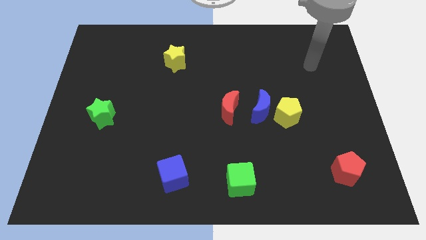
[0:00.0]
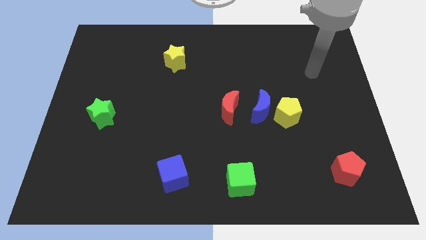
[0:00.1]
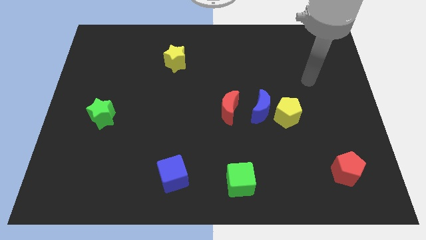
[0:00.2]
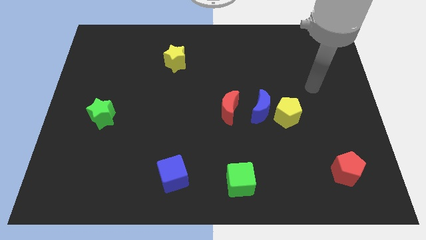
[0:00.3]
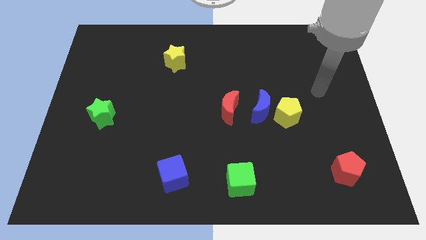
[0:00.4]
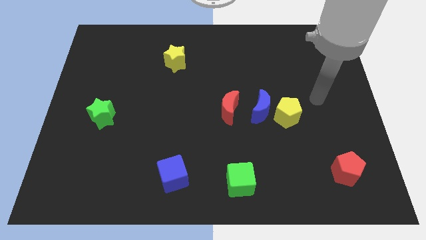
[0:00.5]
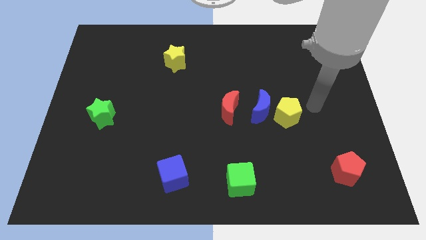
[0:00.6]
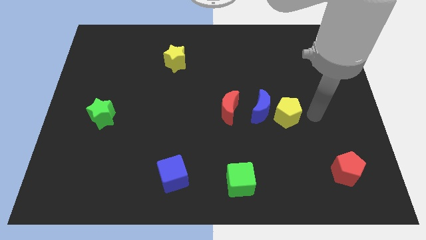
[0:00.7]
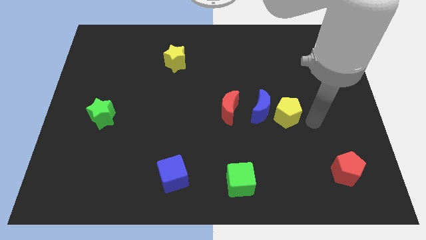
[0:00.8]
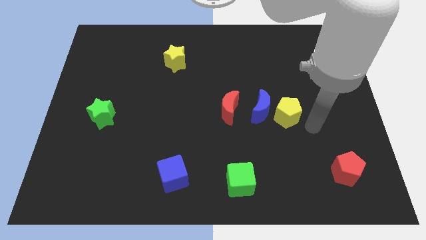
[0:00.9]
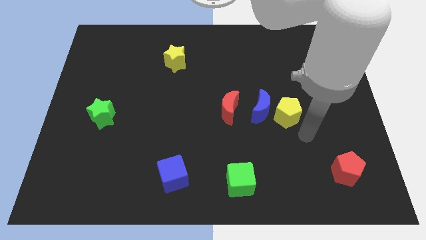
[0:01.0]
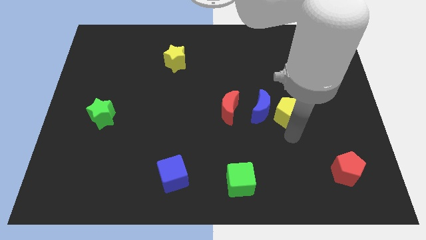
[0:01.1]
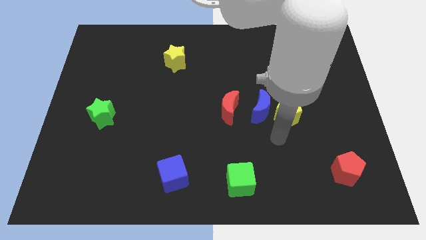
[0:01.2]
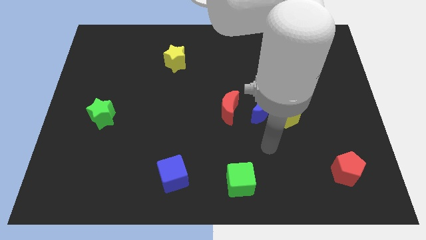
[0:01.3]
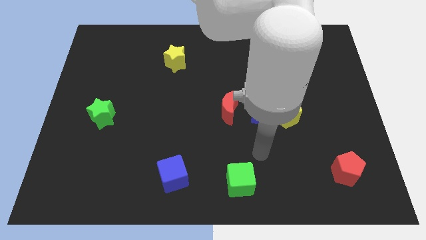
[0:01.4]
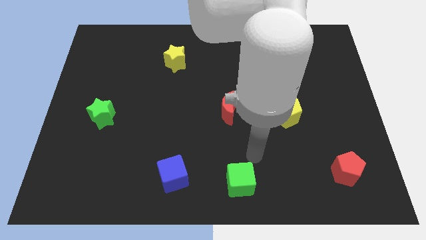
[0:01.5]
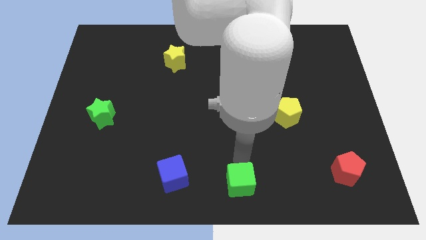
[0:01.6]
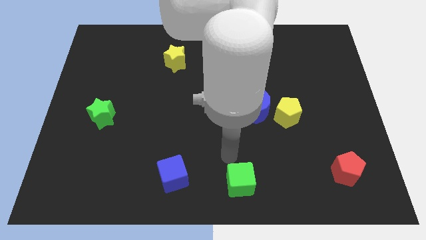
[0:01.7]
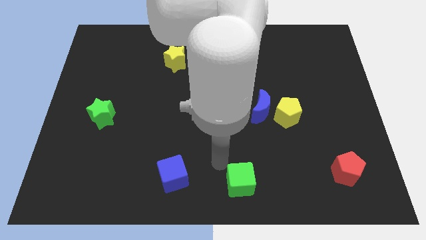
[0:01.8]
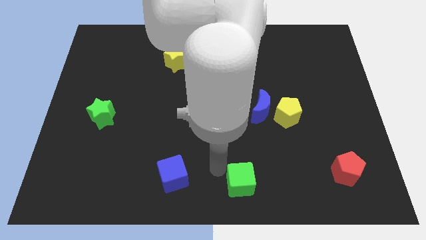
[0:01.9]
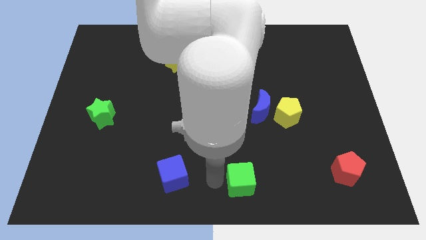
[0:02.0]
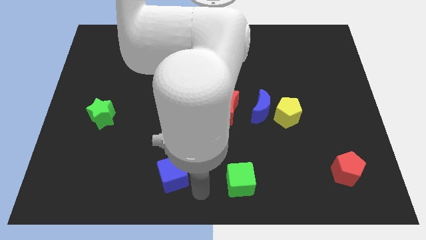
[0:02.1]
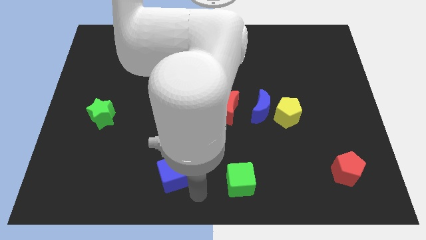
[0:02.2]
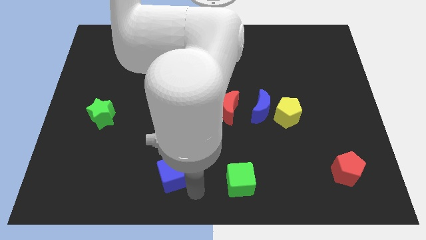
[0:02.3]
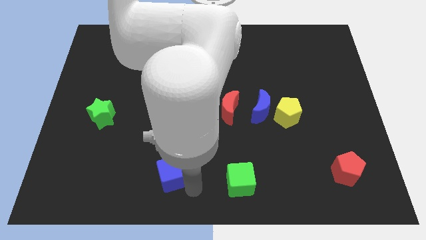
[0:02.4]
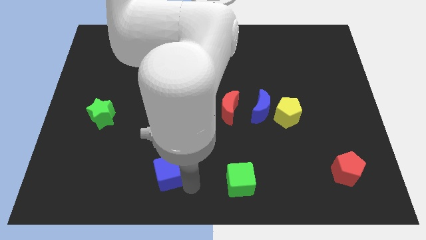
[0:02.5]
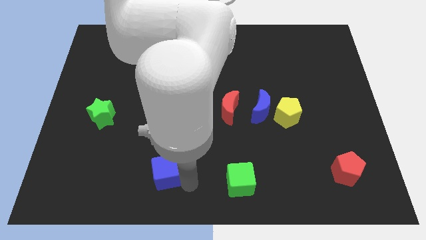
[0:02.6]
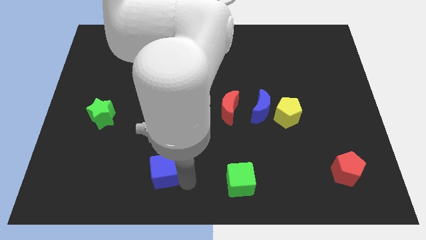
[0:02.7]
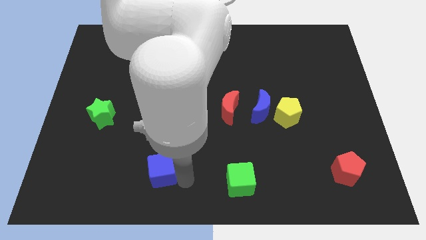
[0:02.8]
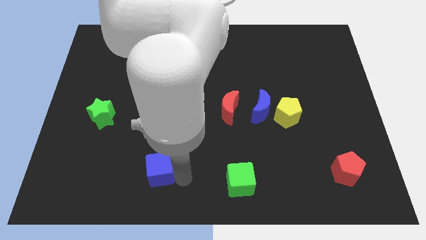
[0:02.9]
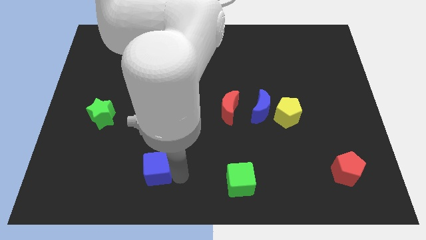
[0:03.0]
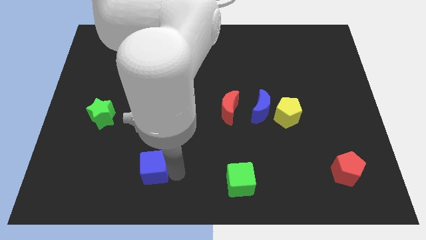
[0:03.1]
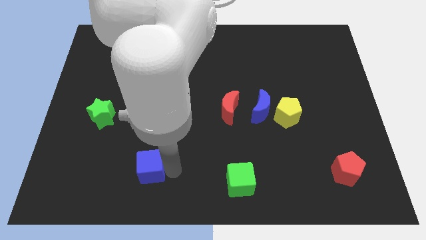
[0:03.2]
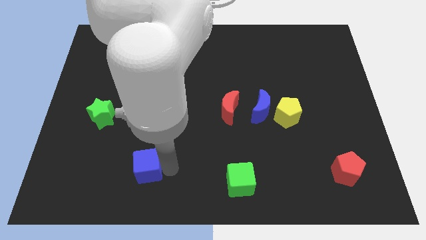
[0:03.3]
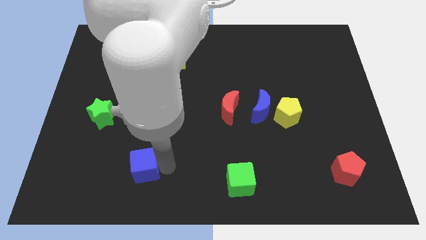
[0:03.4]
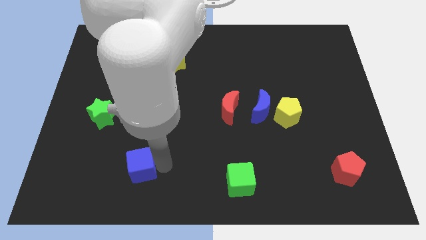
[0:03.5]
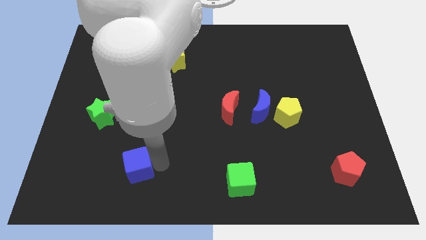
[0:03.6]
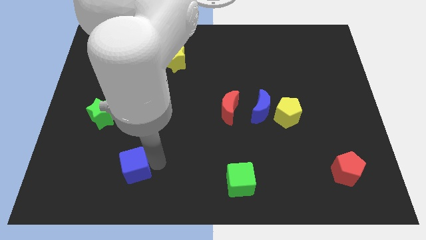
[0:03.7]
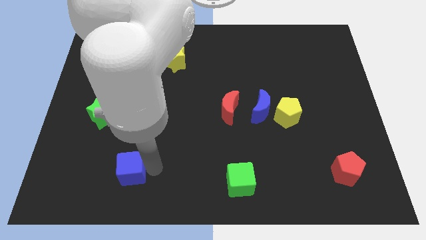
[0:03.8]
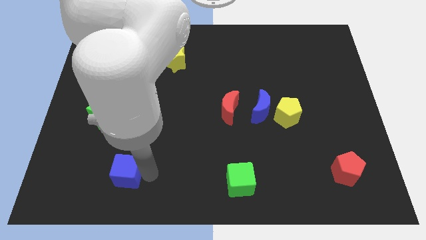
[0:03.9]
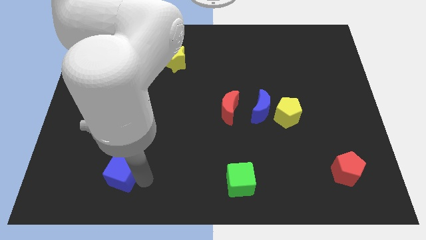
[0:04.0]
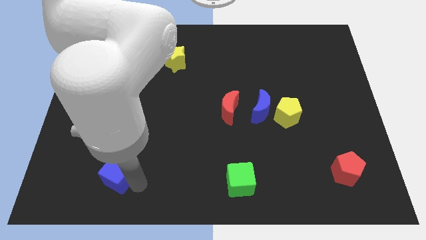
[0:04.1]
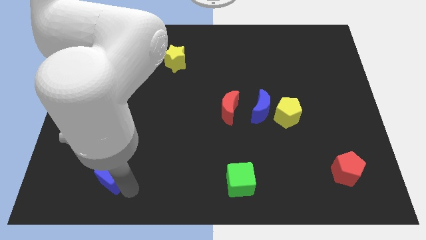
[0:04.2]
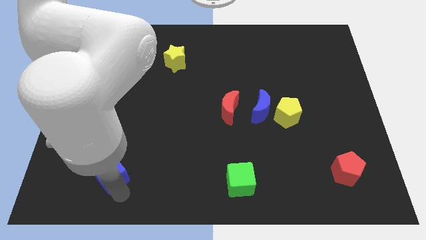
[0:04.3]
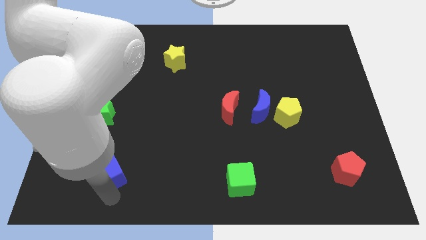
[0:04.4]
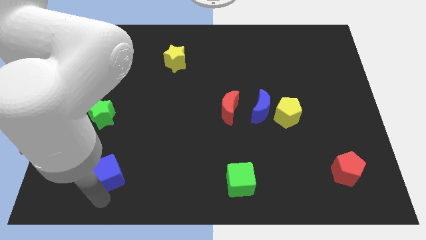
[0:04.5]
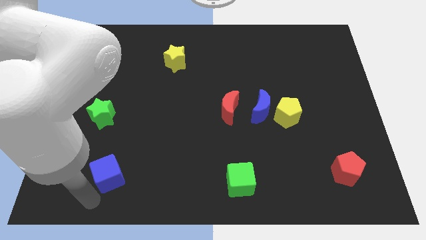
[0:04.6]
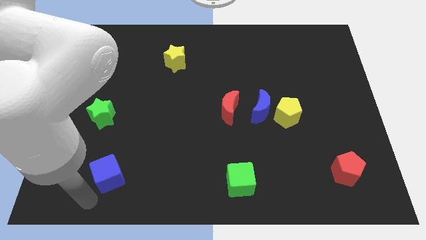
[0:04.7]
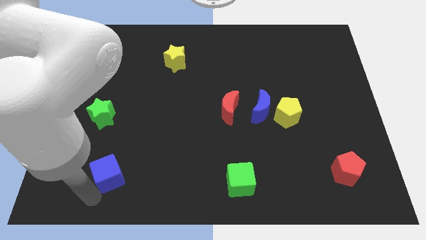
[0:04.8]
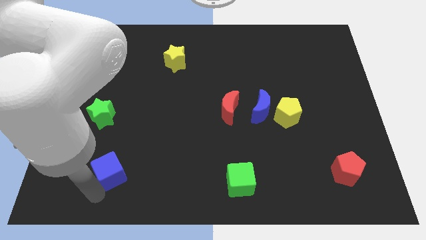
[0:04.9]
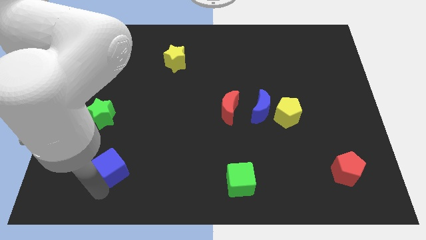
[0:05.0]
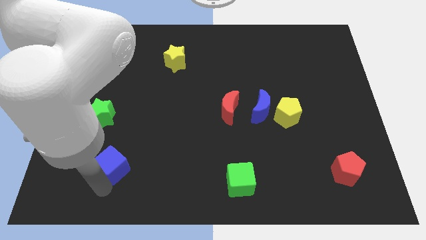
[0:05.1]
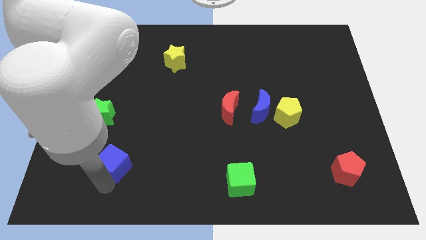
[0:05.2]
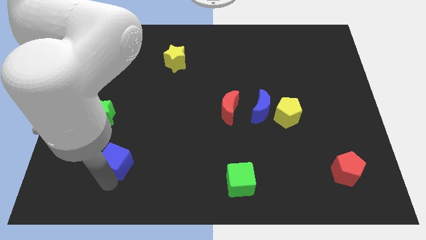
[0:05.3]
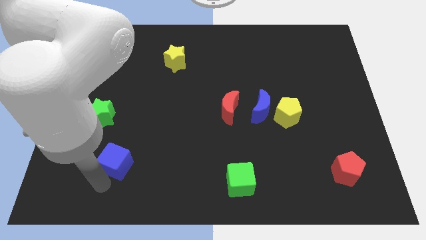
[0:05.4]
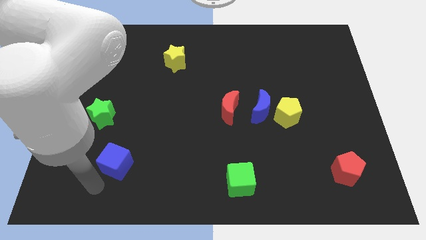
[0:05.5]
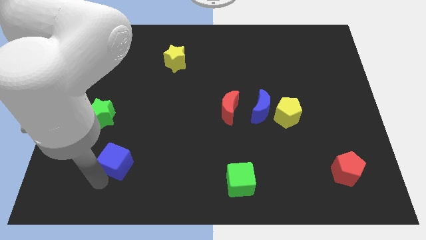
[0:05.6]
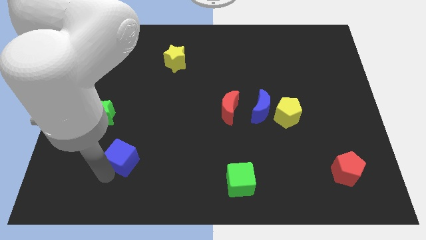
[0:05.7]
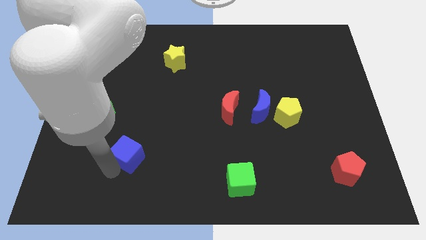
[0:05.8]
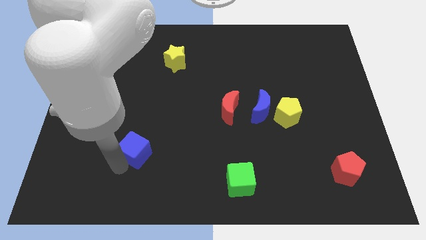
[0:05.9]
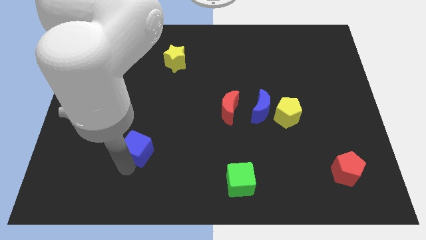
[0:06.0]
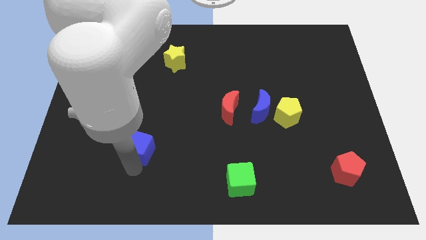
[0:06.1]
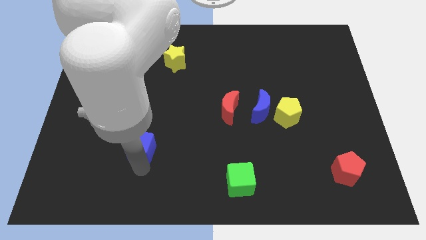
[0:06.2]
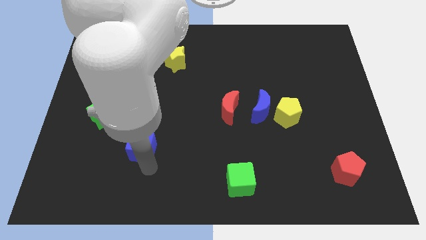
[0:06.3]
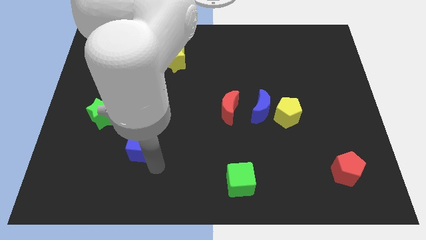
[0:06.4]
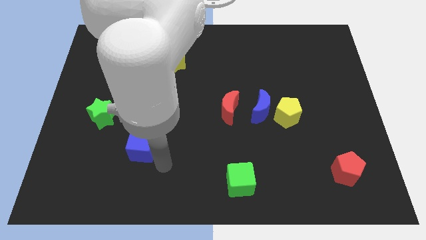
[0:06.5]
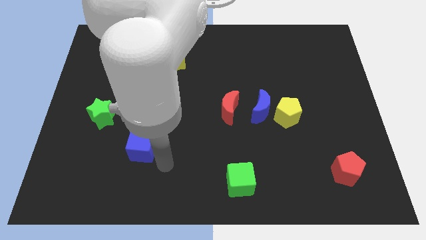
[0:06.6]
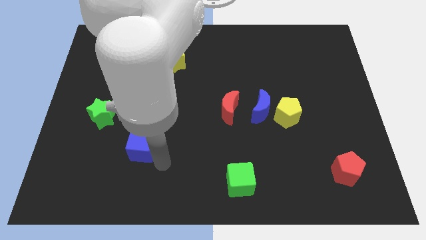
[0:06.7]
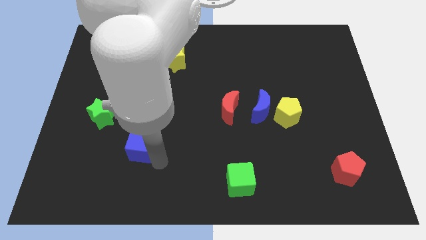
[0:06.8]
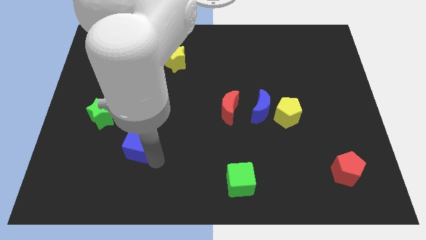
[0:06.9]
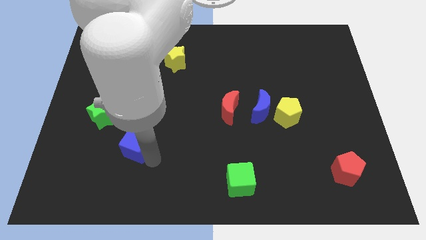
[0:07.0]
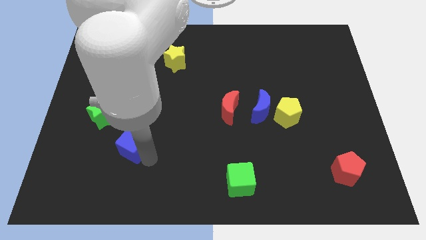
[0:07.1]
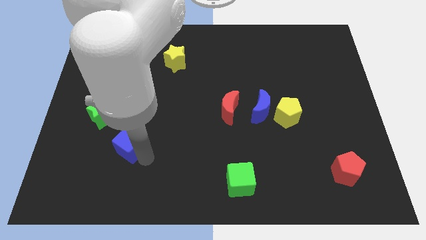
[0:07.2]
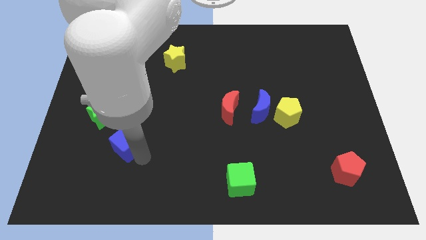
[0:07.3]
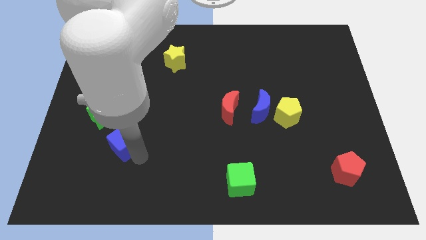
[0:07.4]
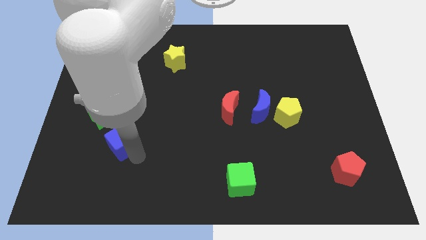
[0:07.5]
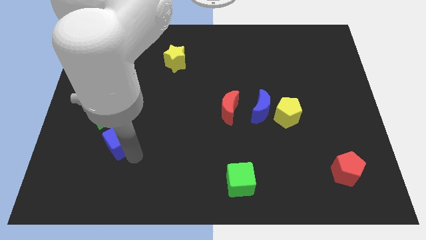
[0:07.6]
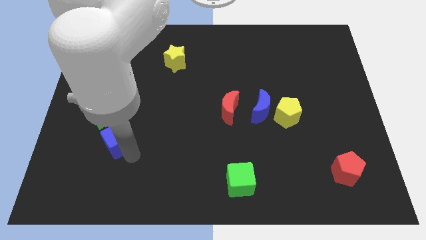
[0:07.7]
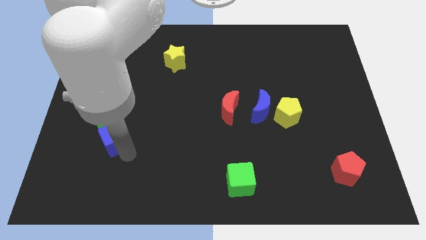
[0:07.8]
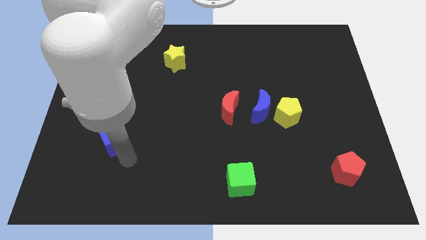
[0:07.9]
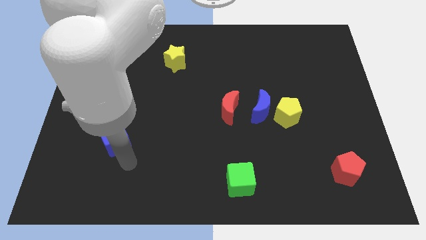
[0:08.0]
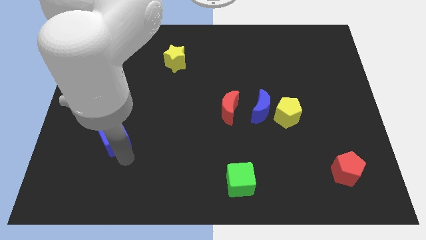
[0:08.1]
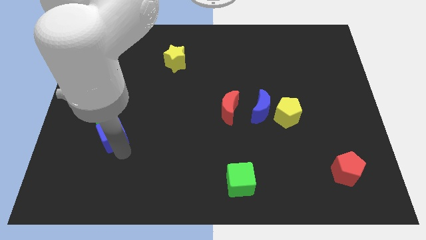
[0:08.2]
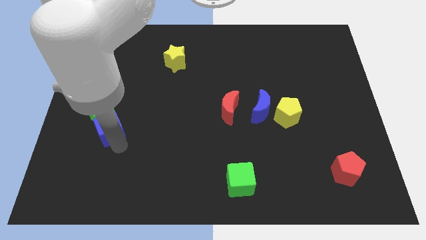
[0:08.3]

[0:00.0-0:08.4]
put the blue cube close to the green star
